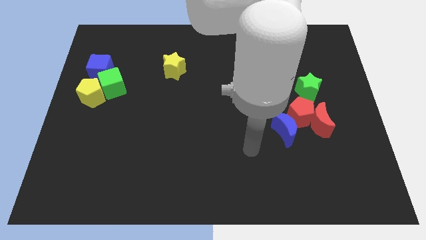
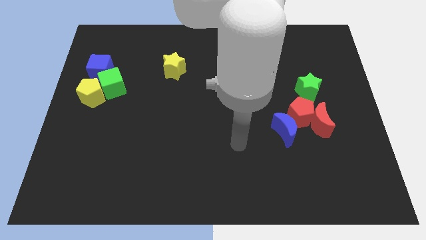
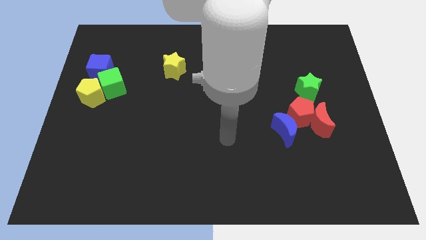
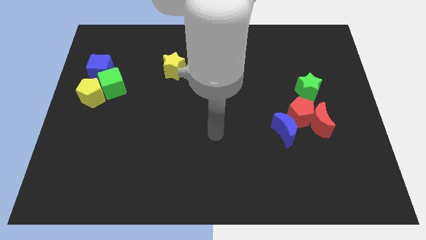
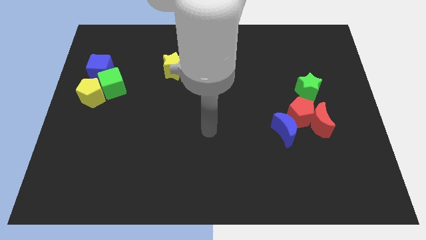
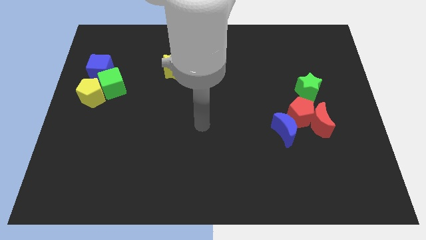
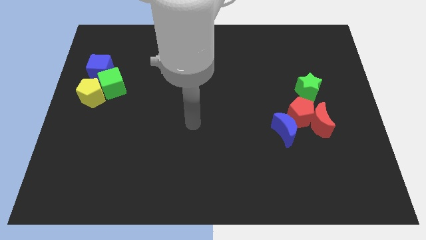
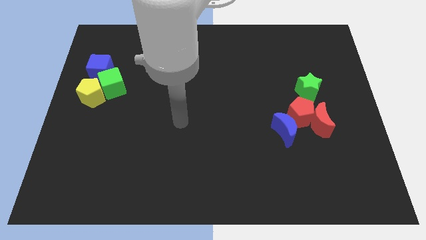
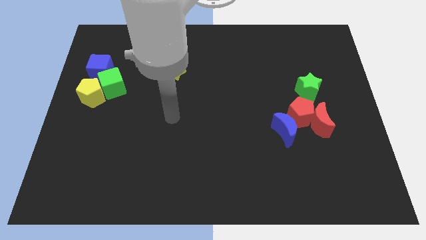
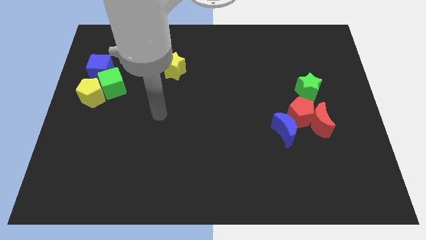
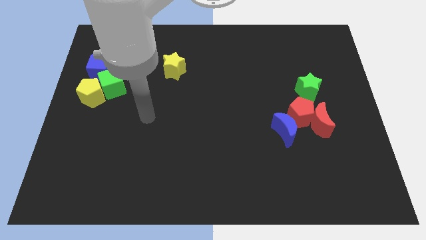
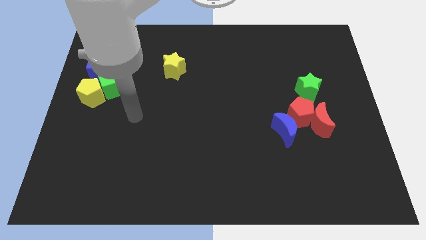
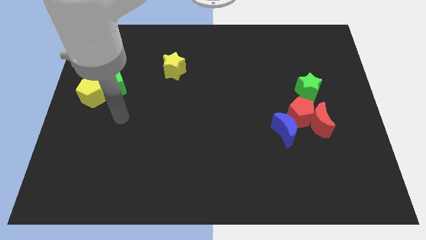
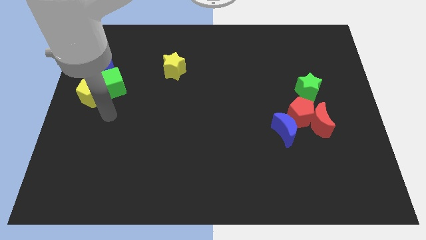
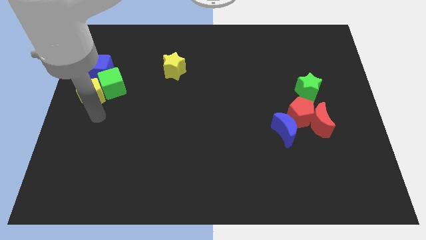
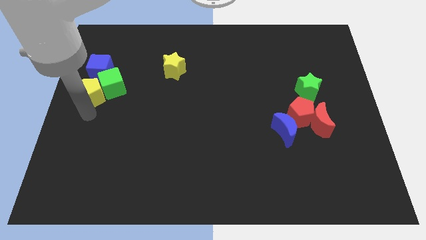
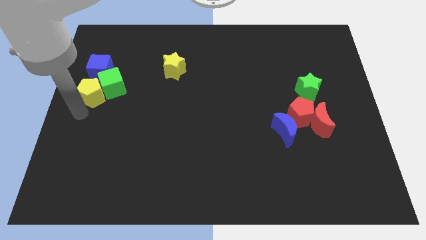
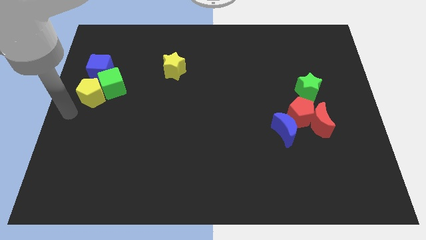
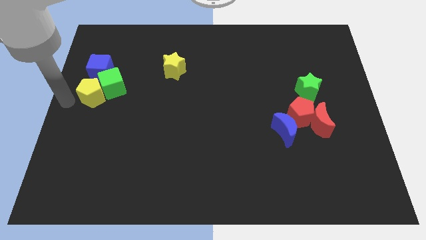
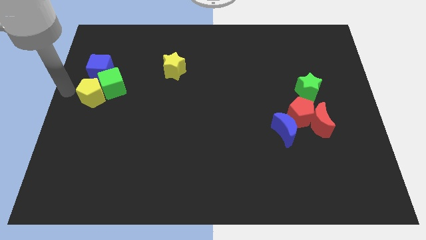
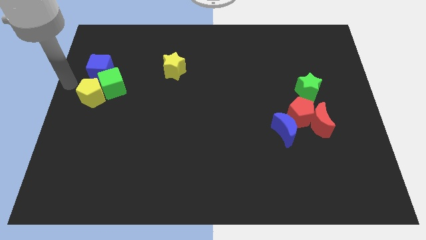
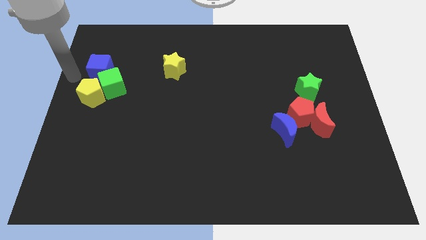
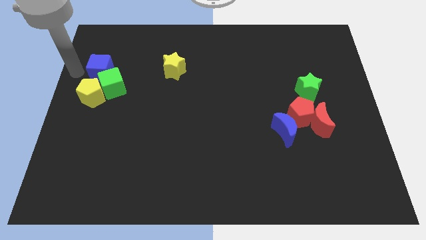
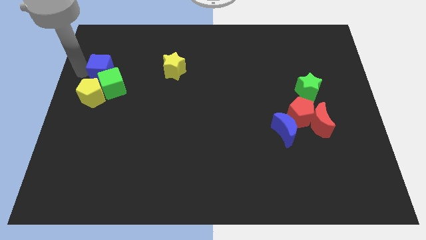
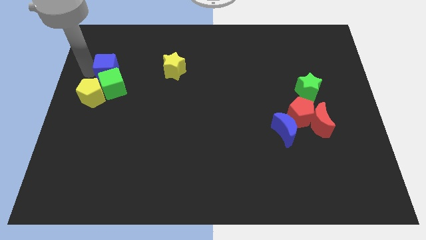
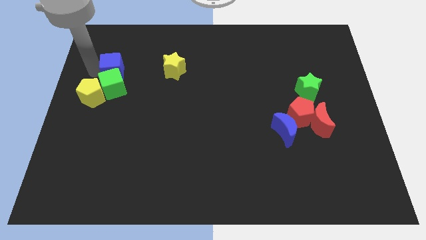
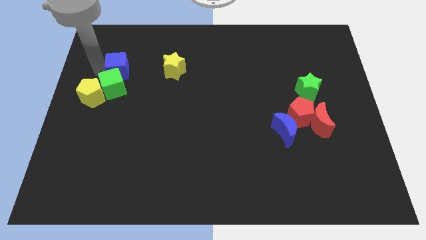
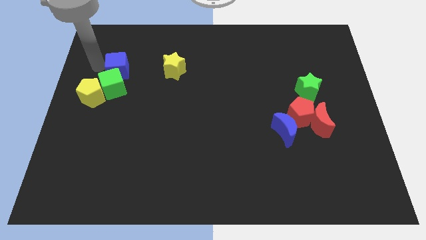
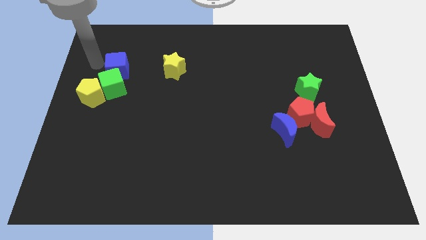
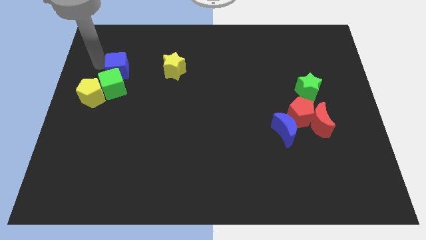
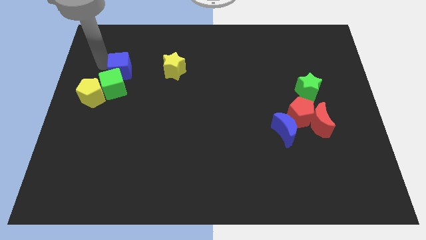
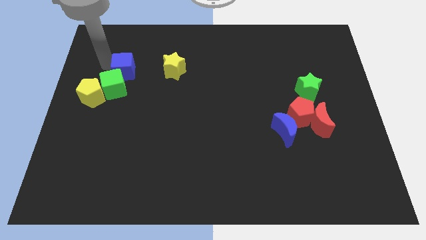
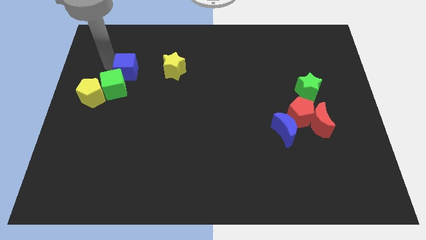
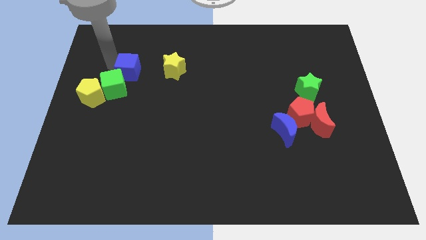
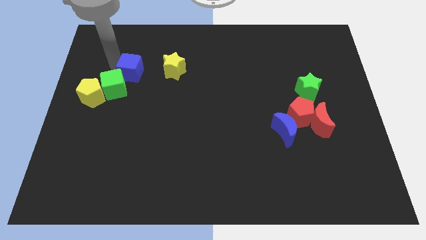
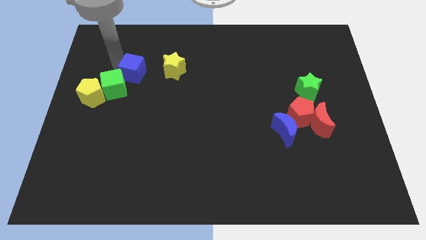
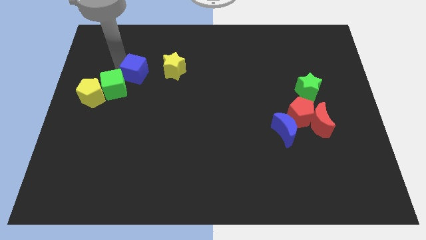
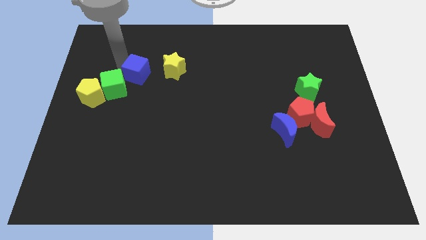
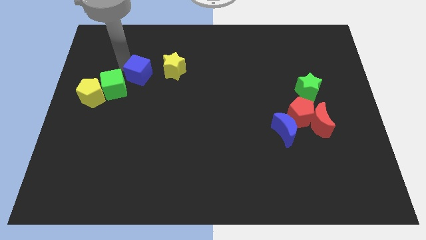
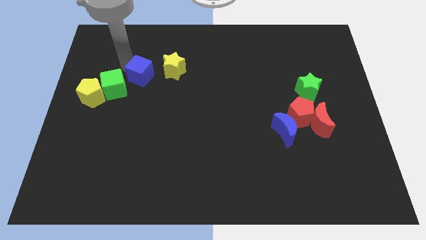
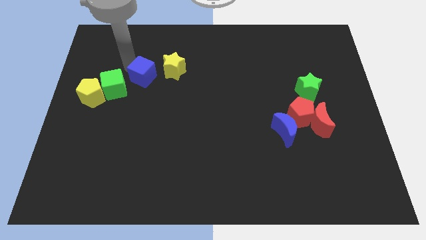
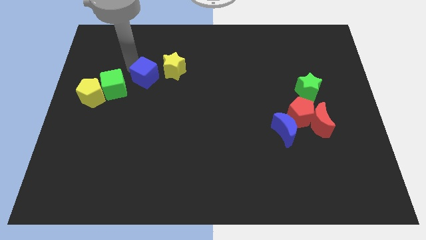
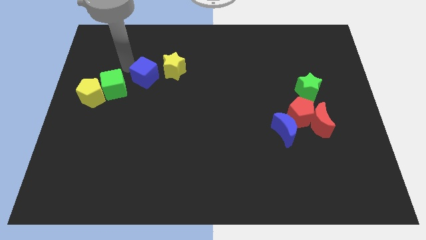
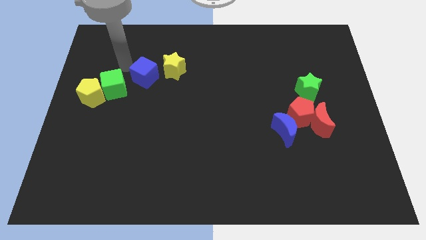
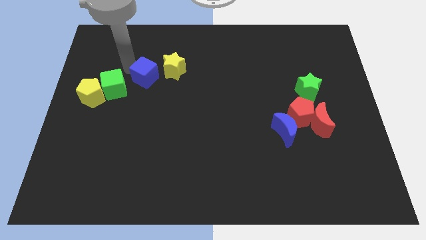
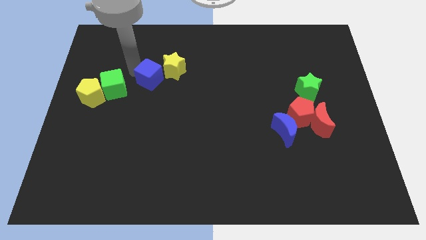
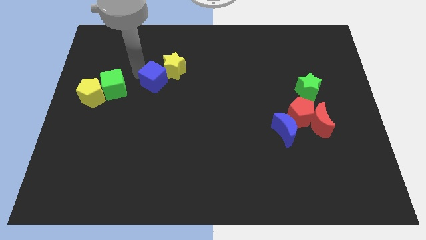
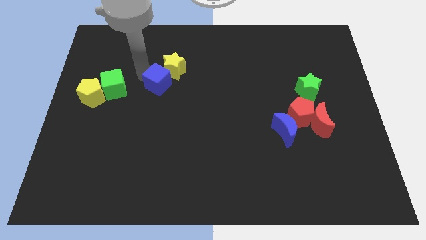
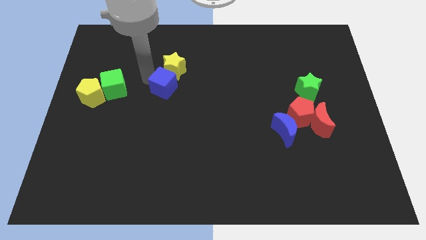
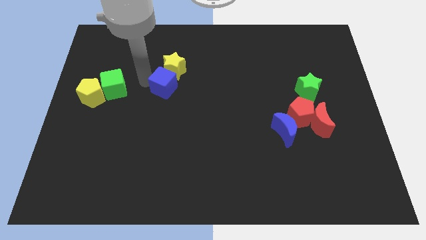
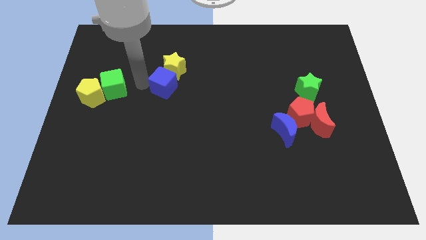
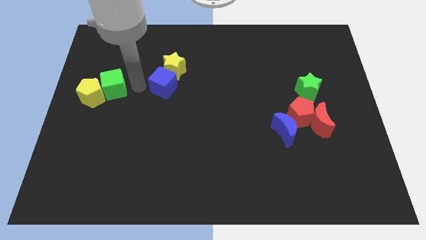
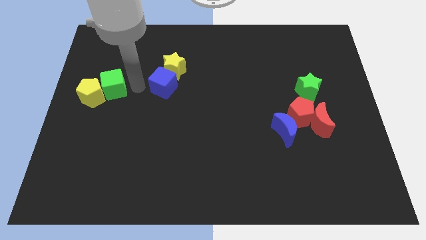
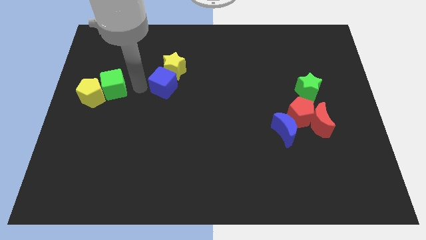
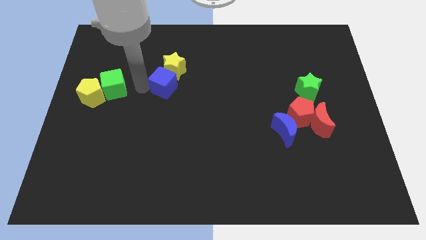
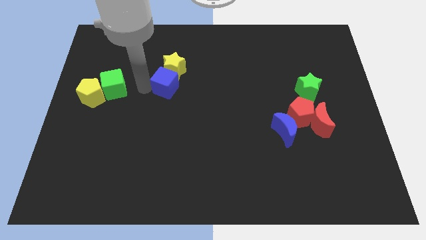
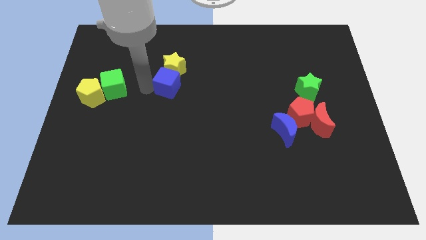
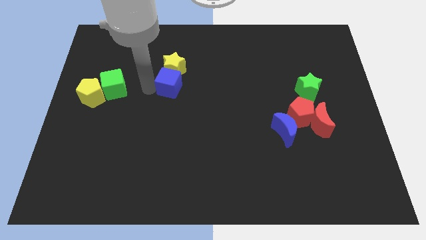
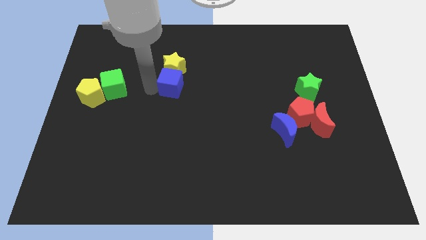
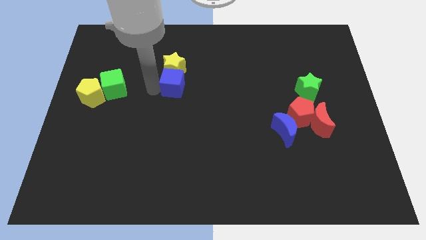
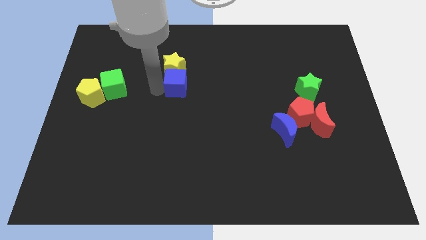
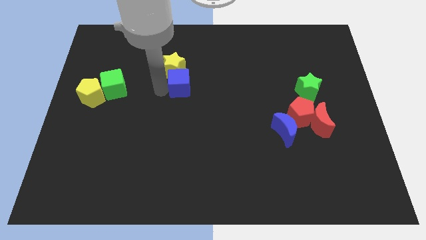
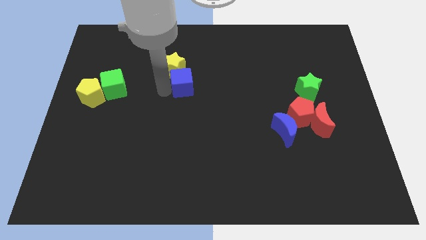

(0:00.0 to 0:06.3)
move the blue cube to the right

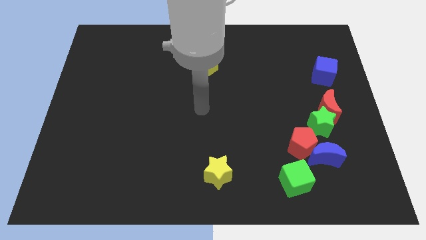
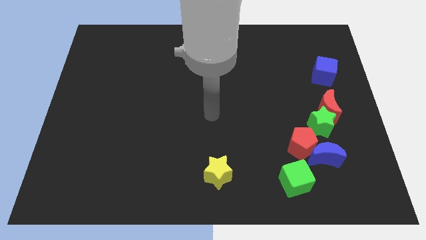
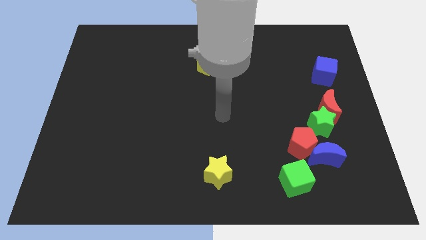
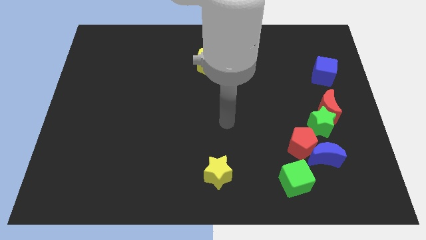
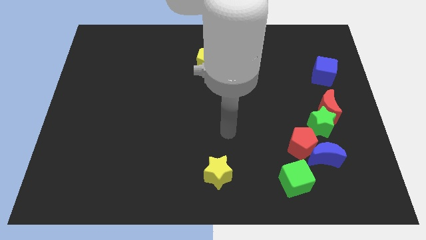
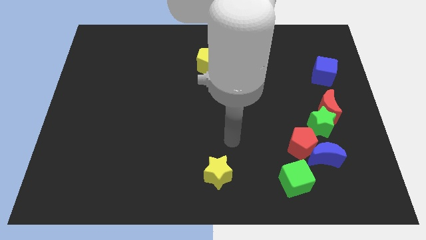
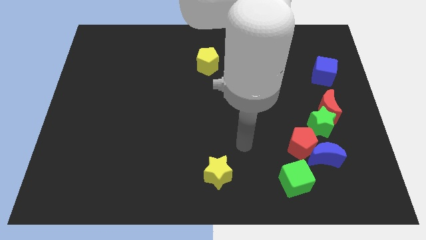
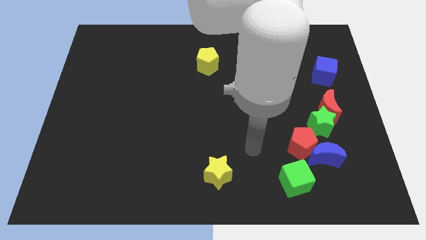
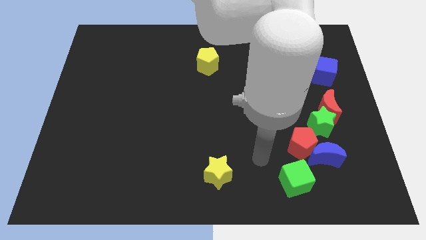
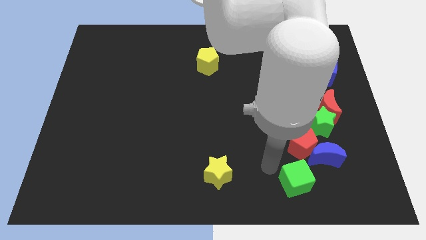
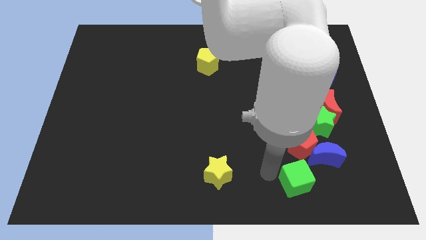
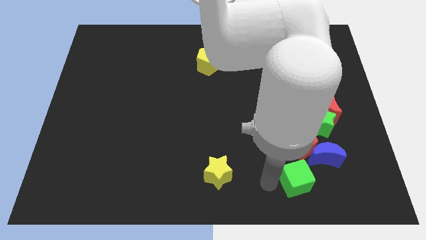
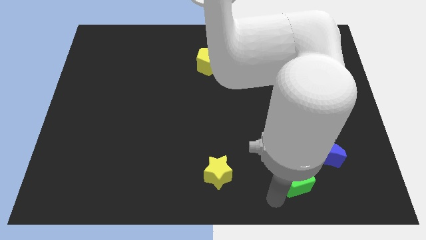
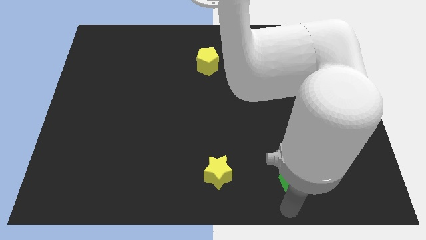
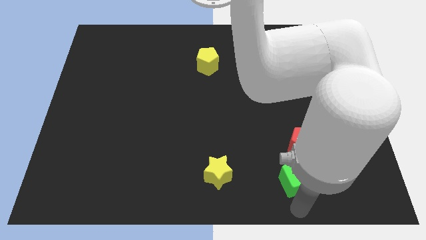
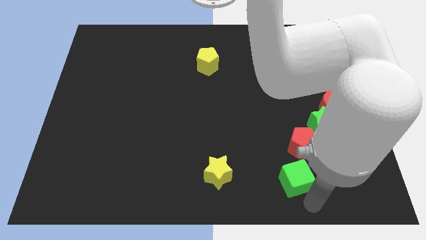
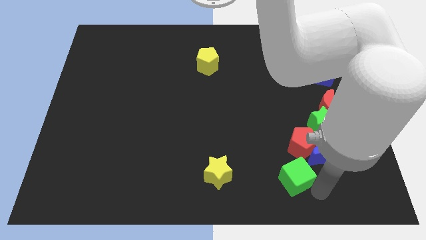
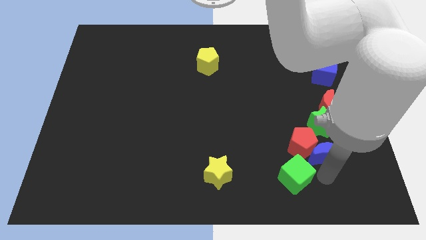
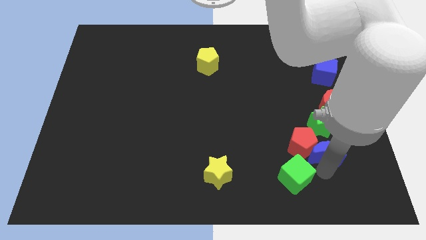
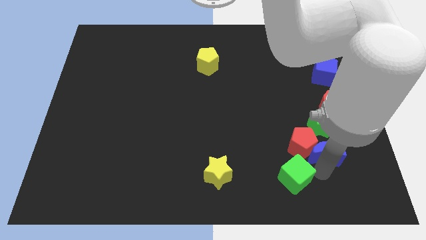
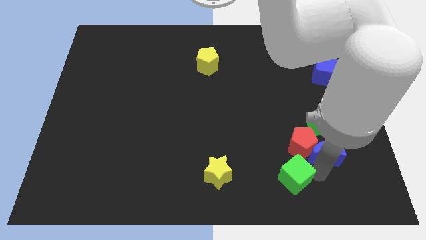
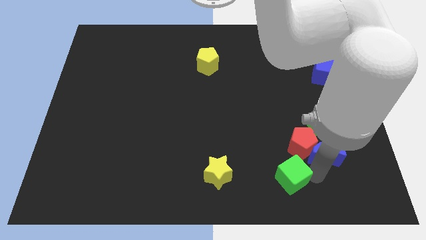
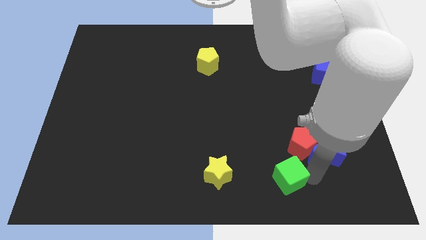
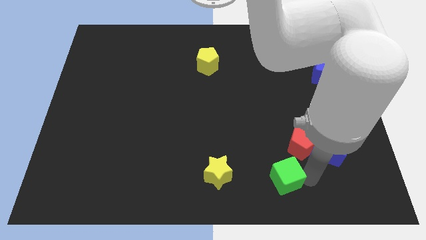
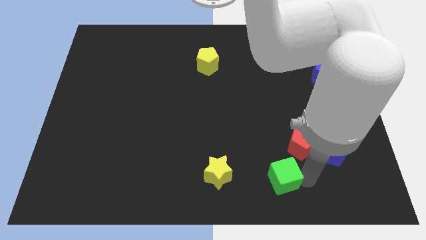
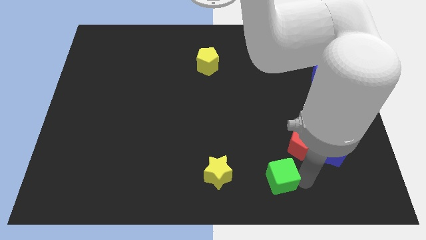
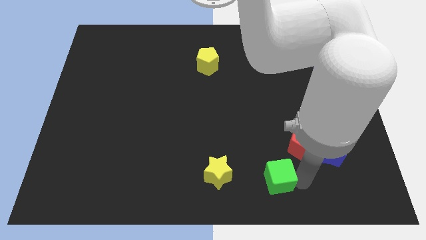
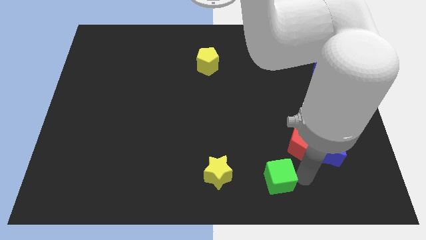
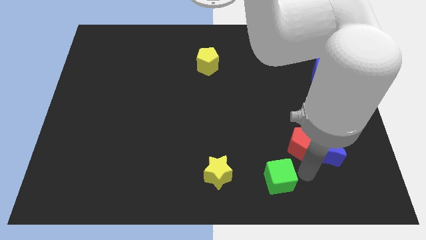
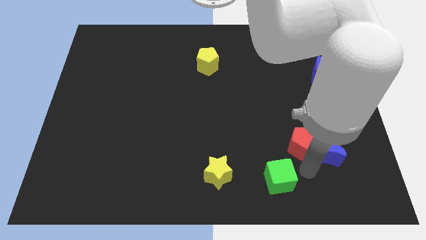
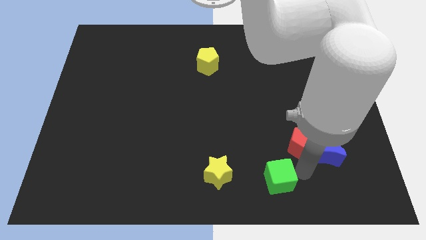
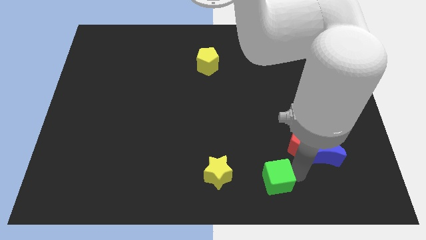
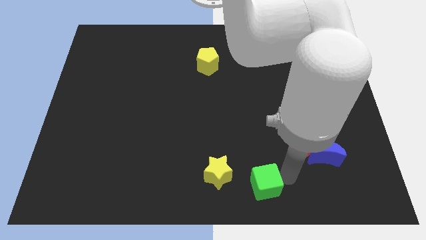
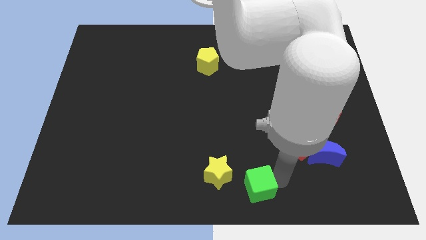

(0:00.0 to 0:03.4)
slide the green cube to the left a bit
